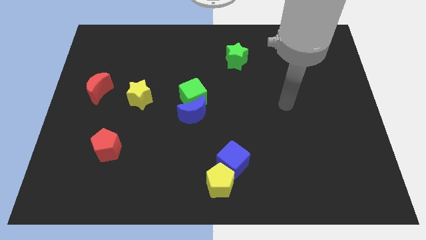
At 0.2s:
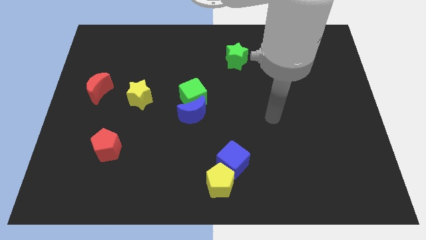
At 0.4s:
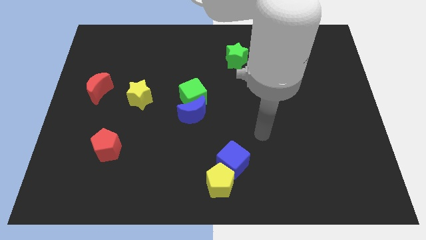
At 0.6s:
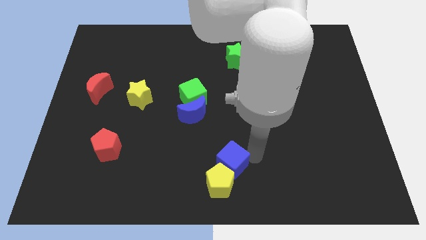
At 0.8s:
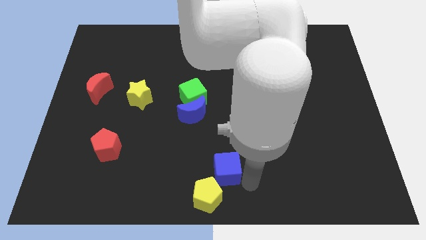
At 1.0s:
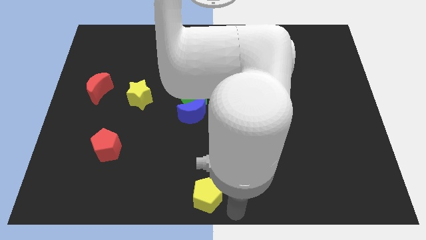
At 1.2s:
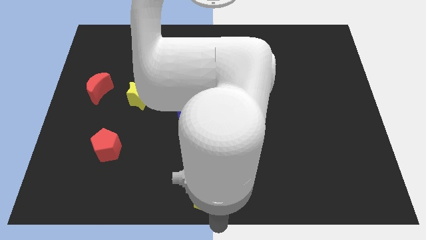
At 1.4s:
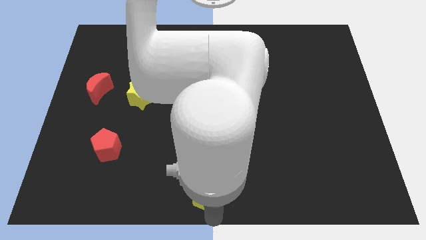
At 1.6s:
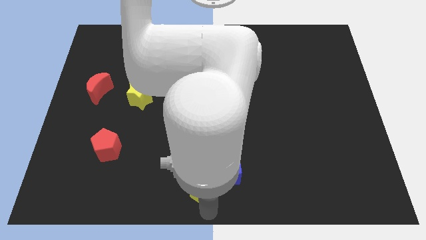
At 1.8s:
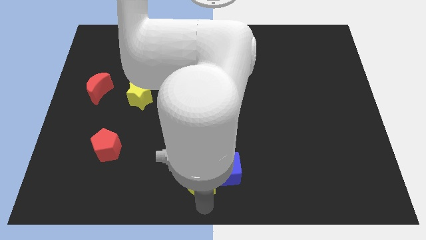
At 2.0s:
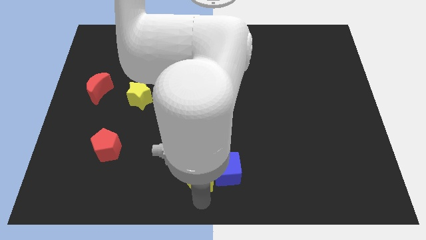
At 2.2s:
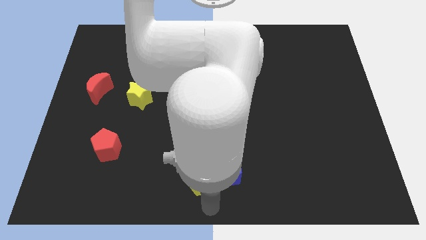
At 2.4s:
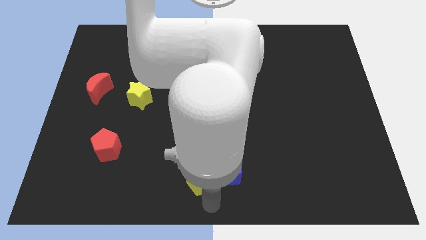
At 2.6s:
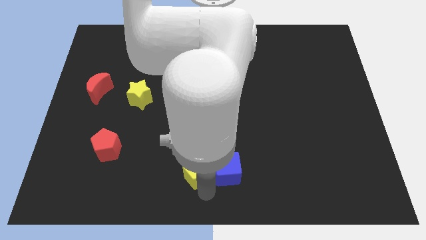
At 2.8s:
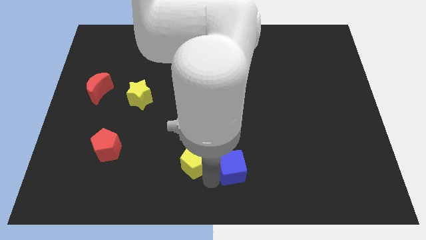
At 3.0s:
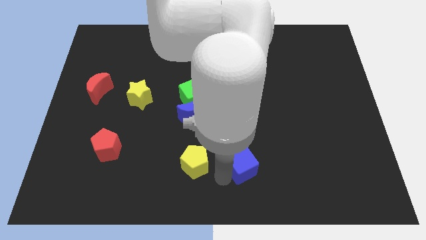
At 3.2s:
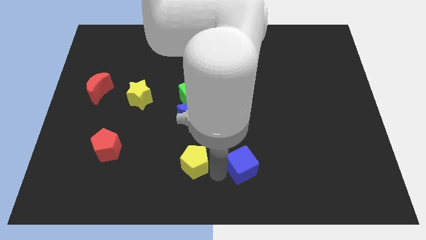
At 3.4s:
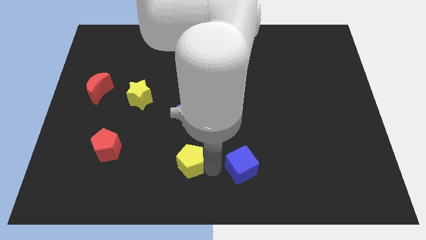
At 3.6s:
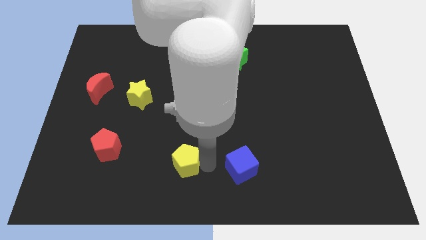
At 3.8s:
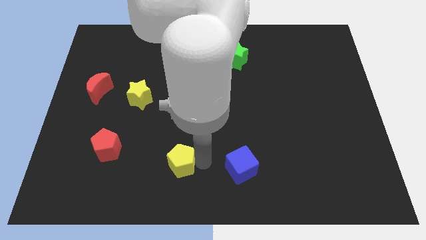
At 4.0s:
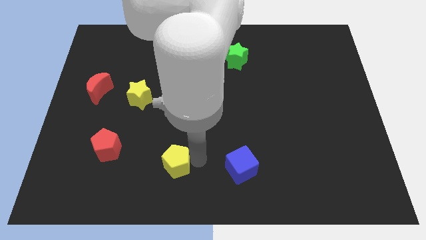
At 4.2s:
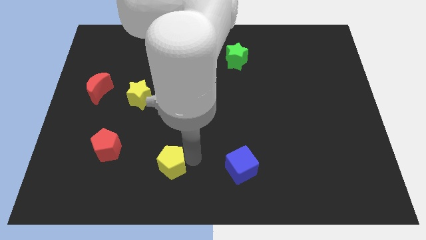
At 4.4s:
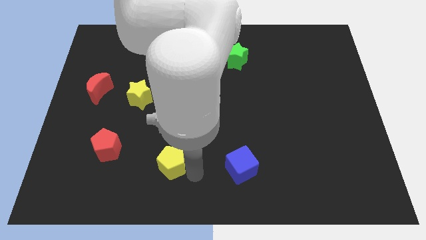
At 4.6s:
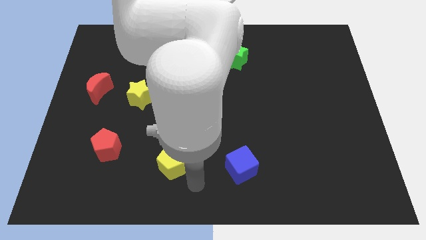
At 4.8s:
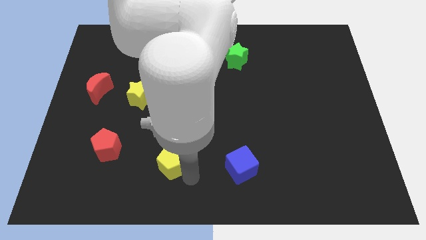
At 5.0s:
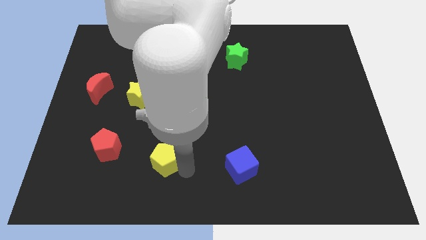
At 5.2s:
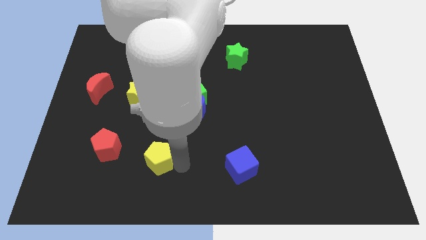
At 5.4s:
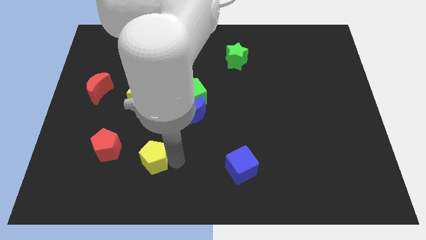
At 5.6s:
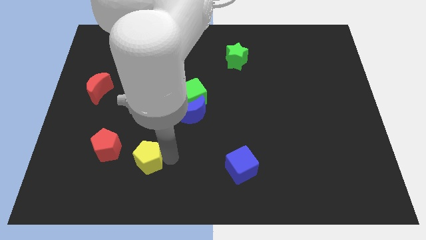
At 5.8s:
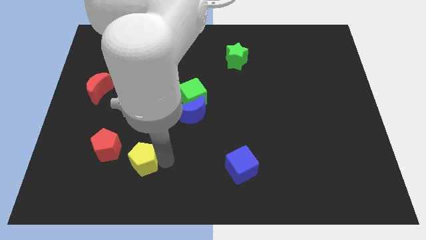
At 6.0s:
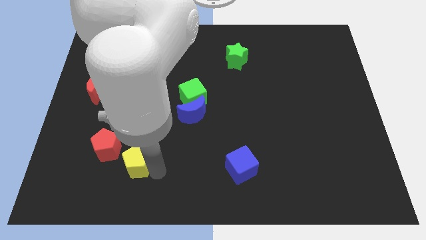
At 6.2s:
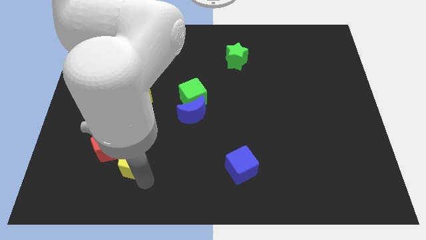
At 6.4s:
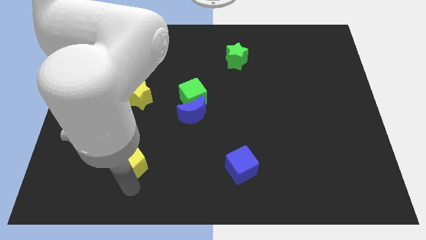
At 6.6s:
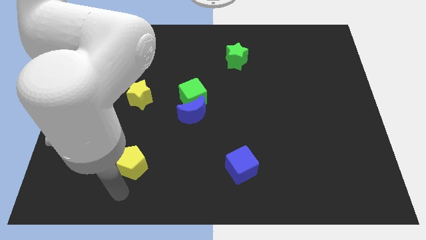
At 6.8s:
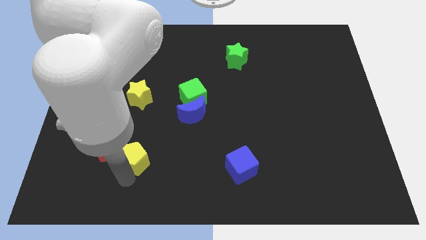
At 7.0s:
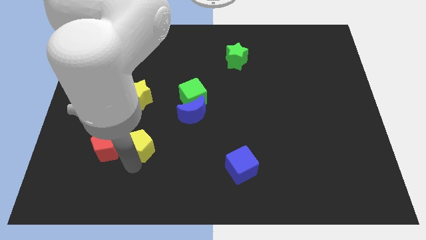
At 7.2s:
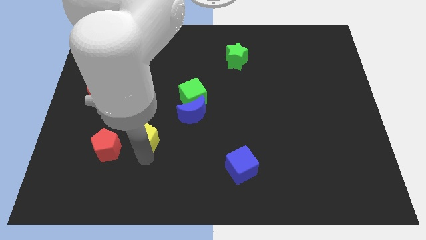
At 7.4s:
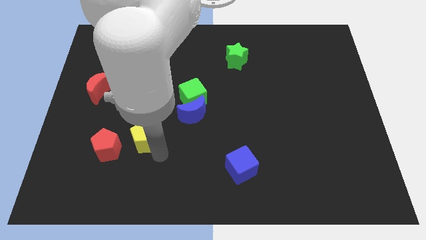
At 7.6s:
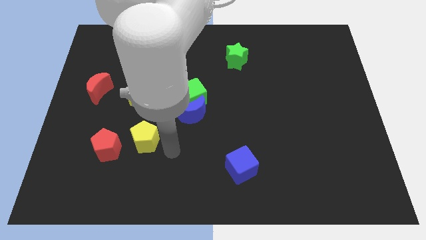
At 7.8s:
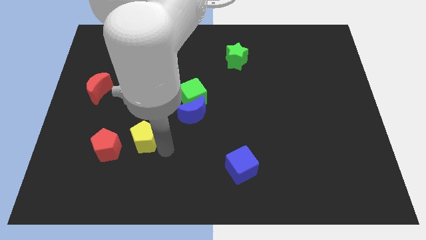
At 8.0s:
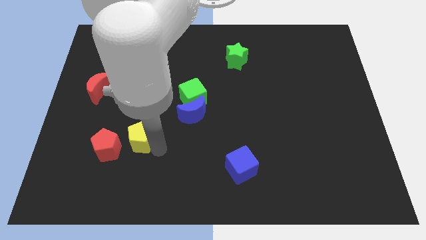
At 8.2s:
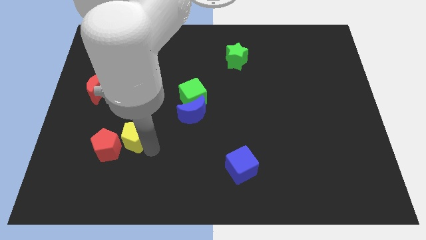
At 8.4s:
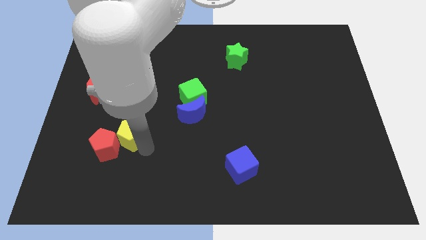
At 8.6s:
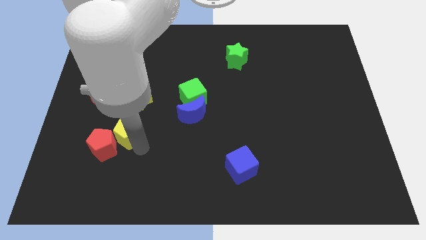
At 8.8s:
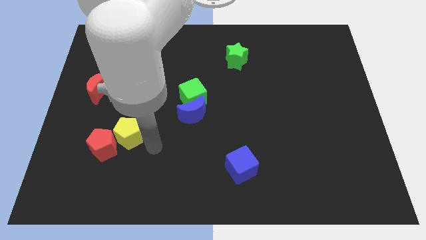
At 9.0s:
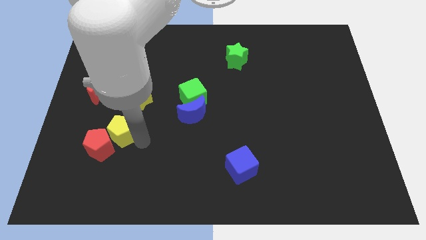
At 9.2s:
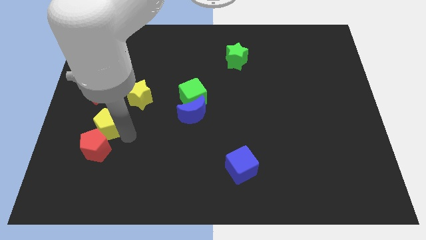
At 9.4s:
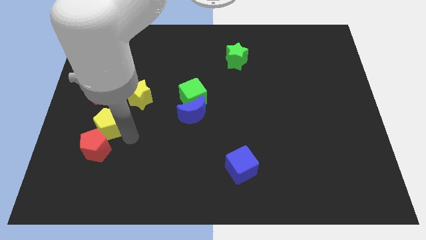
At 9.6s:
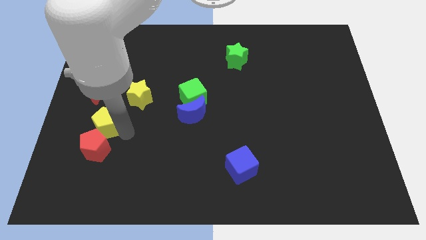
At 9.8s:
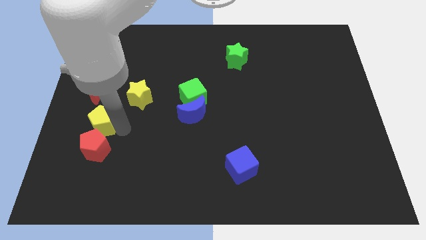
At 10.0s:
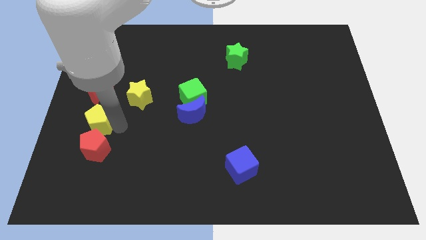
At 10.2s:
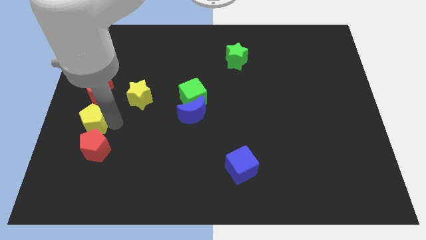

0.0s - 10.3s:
slide the yellow pentagon to the left side of the board

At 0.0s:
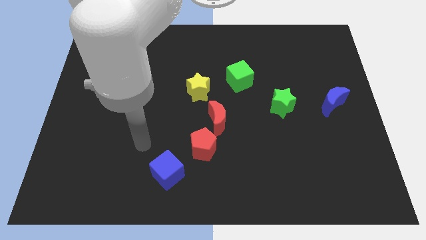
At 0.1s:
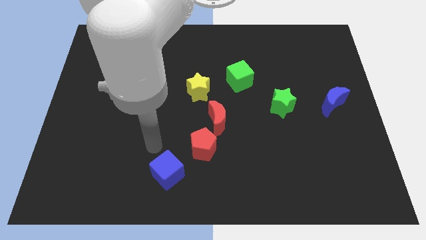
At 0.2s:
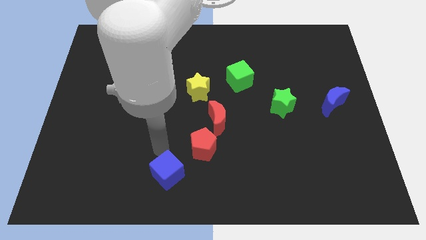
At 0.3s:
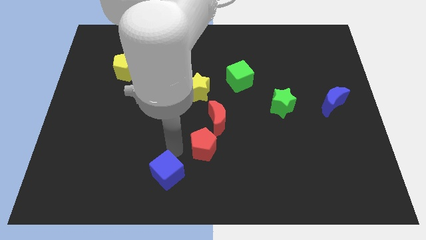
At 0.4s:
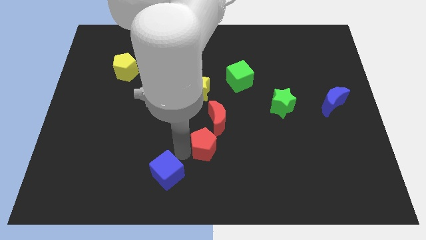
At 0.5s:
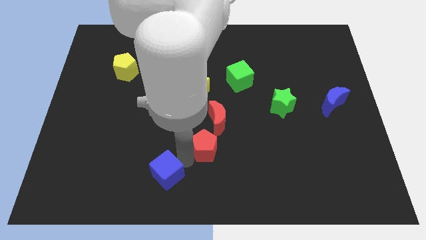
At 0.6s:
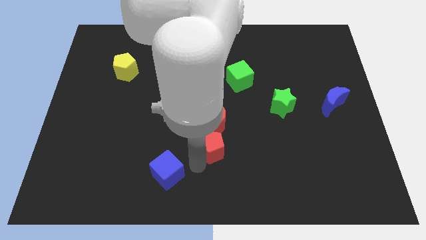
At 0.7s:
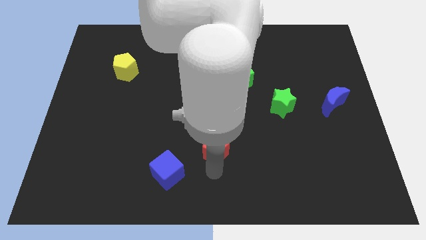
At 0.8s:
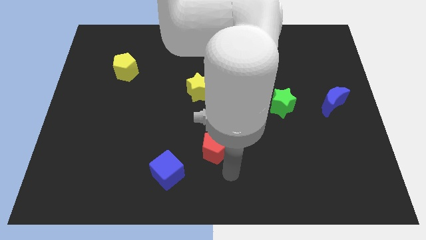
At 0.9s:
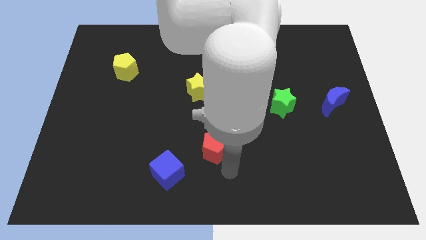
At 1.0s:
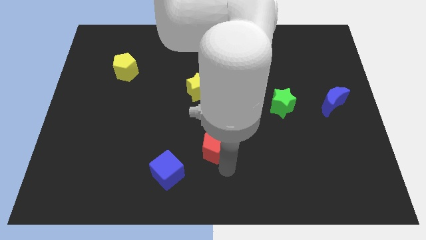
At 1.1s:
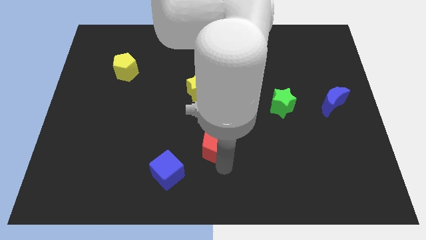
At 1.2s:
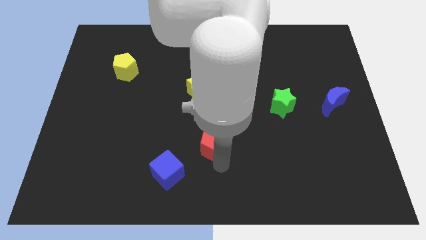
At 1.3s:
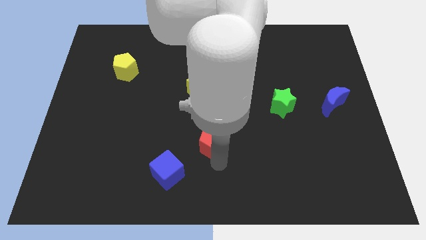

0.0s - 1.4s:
put the red pentagon to the center
